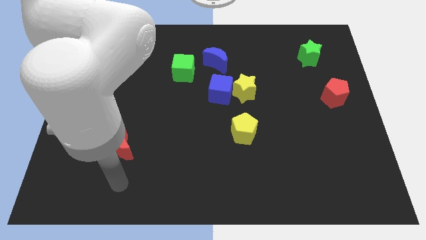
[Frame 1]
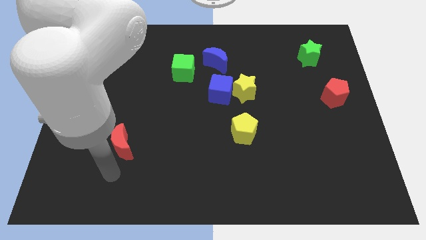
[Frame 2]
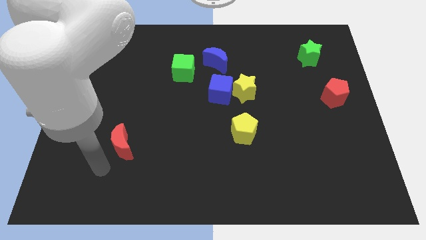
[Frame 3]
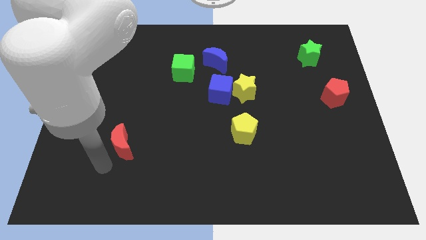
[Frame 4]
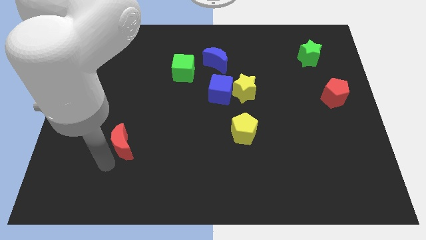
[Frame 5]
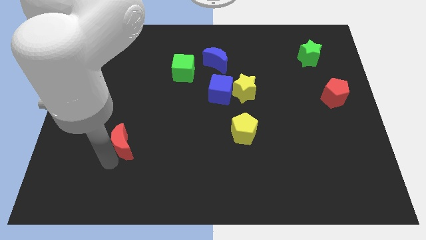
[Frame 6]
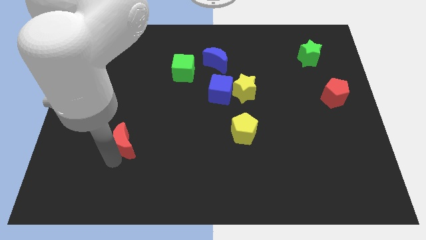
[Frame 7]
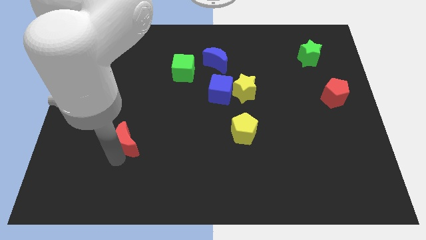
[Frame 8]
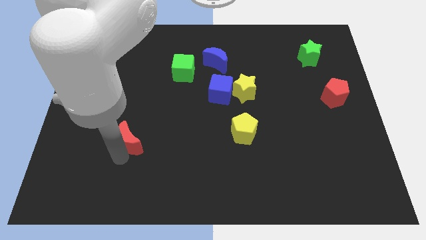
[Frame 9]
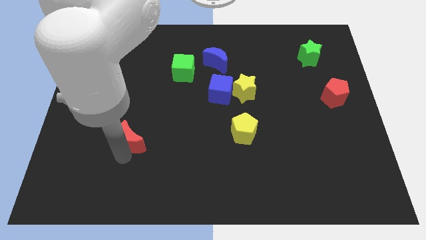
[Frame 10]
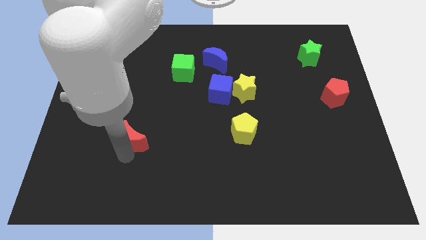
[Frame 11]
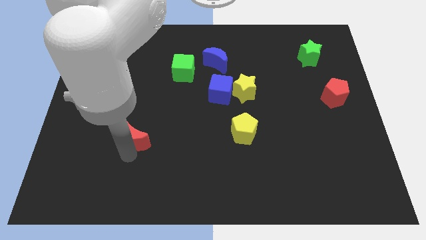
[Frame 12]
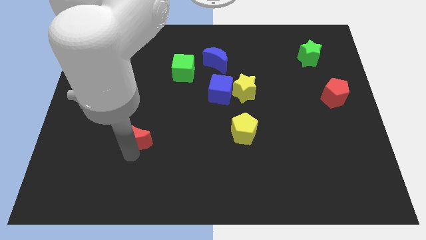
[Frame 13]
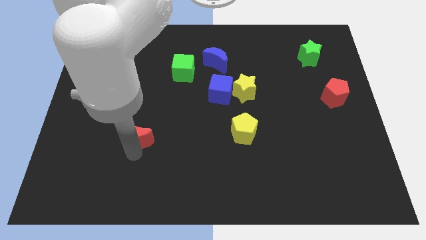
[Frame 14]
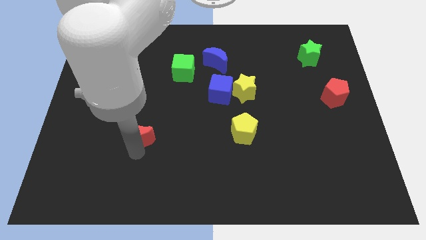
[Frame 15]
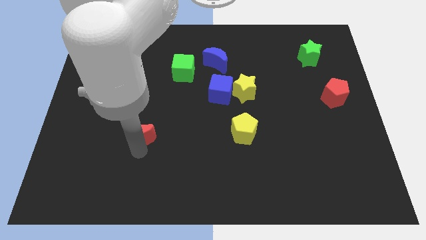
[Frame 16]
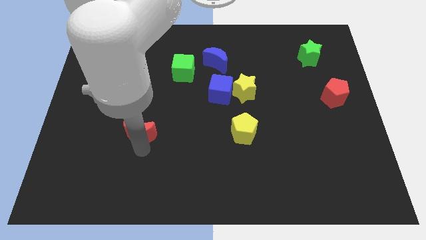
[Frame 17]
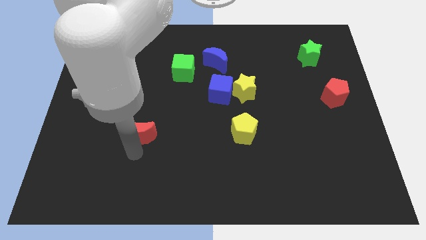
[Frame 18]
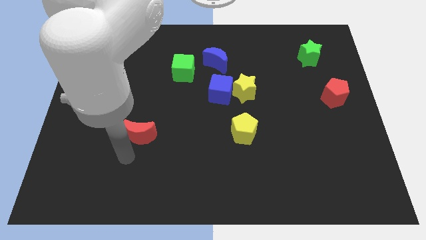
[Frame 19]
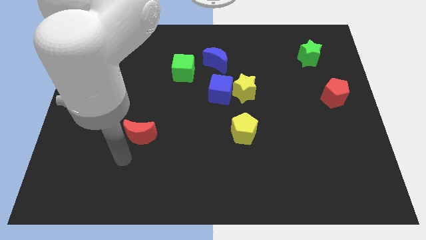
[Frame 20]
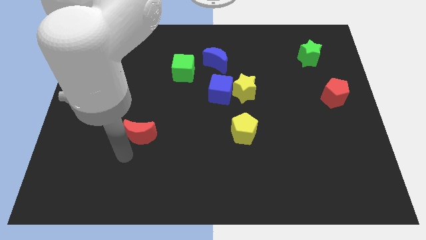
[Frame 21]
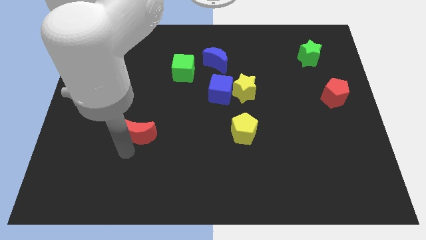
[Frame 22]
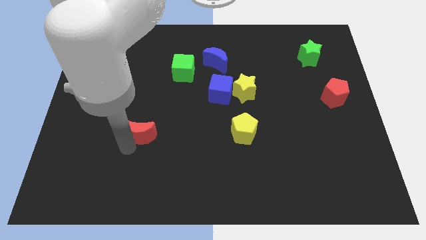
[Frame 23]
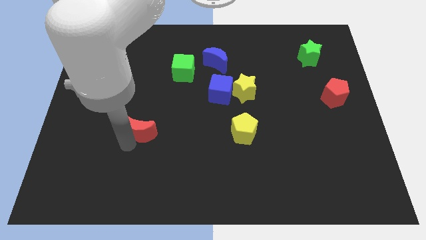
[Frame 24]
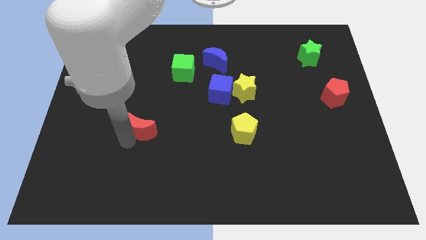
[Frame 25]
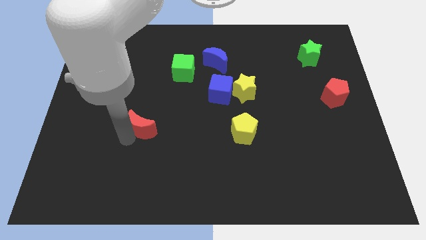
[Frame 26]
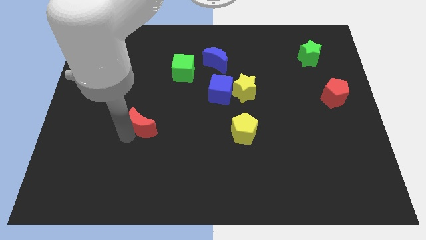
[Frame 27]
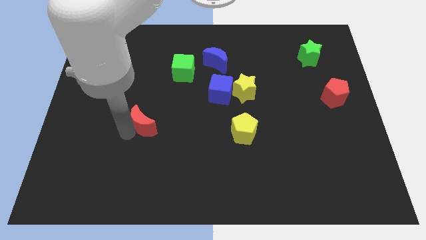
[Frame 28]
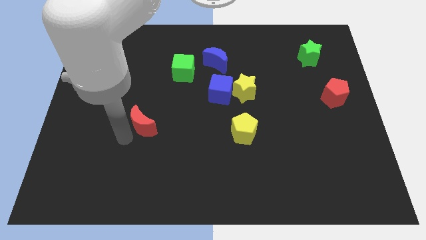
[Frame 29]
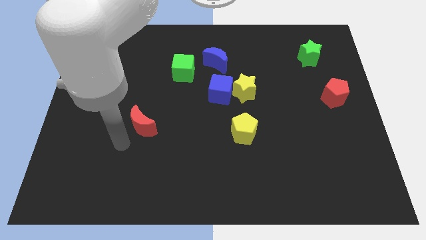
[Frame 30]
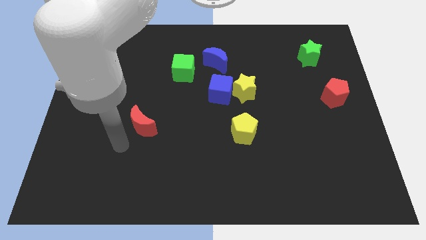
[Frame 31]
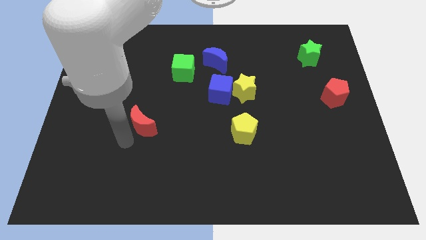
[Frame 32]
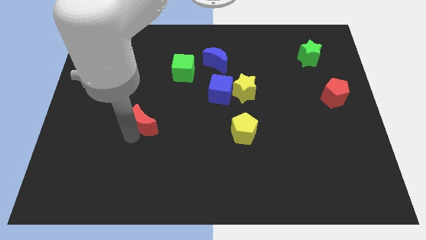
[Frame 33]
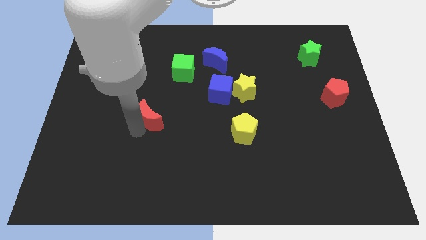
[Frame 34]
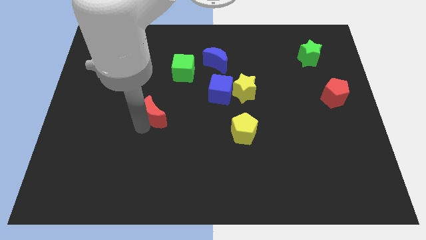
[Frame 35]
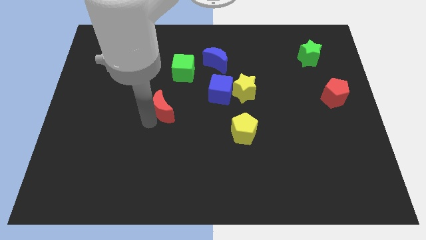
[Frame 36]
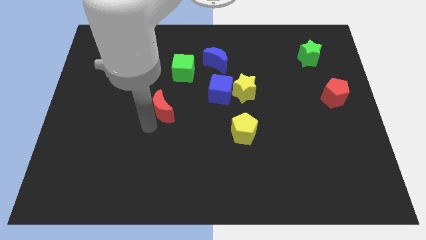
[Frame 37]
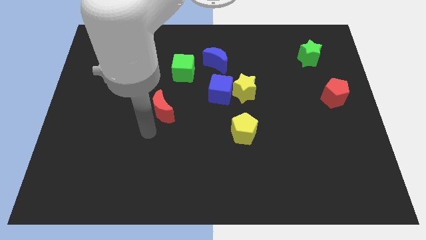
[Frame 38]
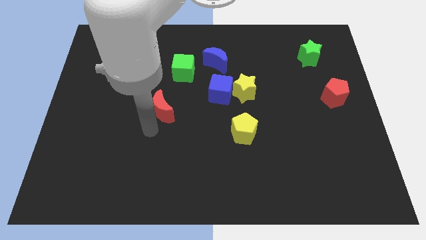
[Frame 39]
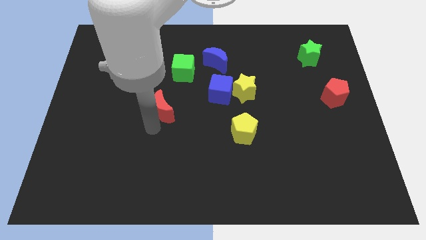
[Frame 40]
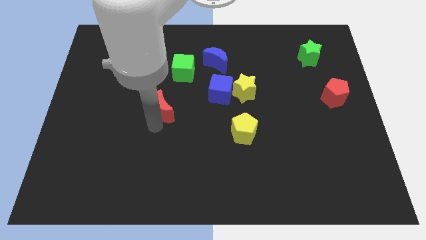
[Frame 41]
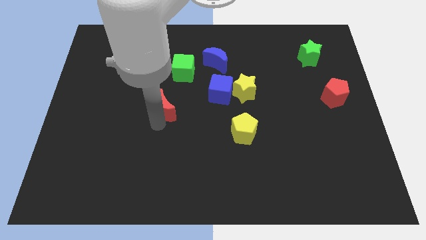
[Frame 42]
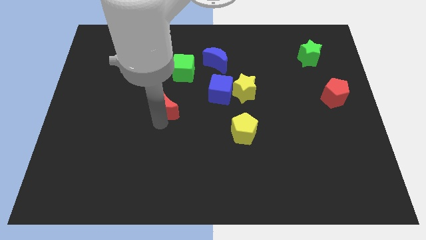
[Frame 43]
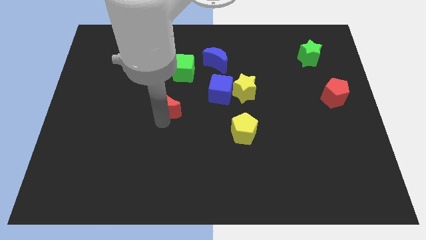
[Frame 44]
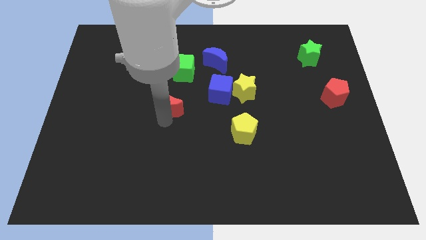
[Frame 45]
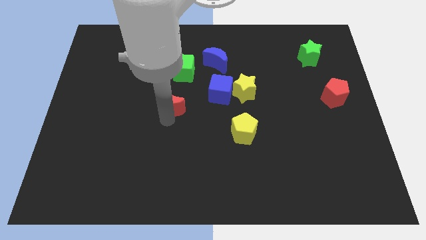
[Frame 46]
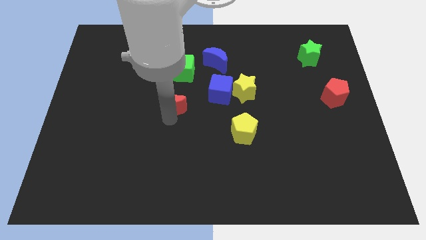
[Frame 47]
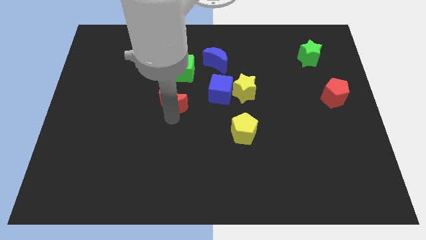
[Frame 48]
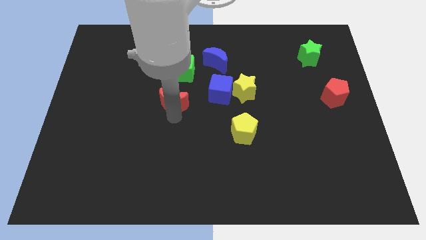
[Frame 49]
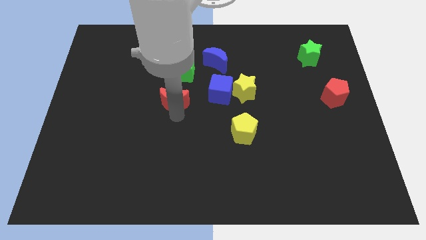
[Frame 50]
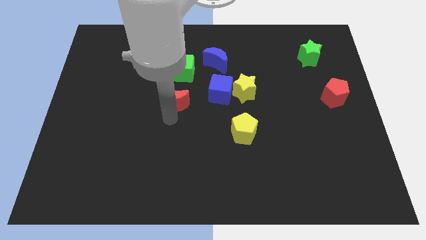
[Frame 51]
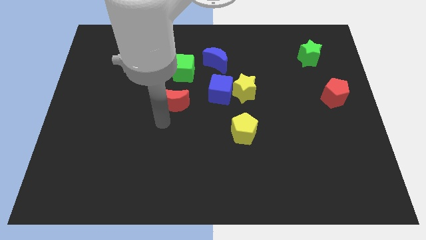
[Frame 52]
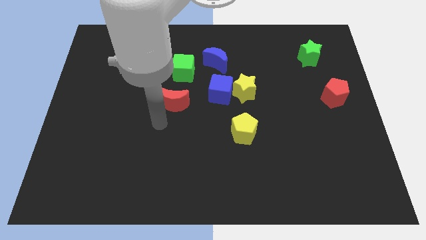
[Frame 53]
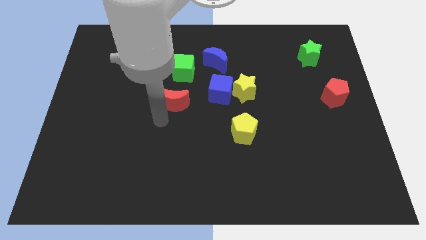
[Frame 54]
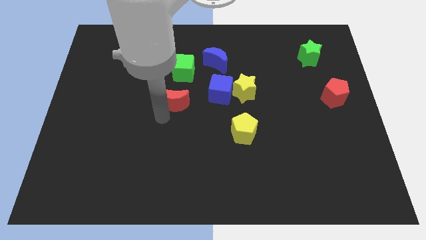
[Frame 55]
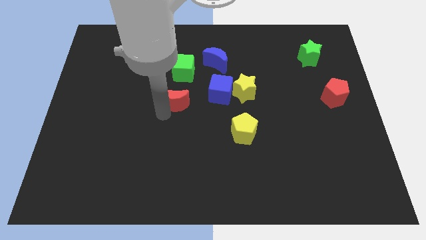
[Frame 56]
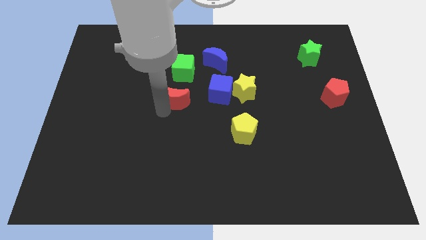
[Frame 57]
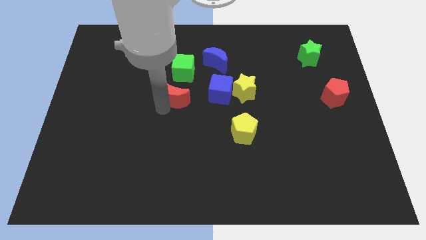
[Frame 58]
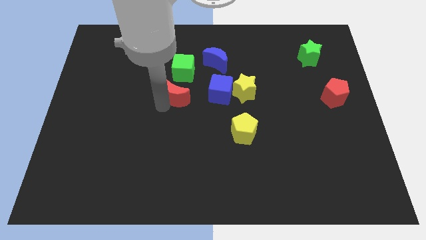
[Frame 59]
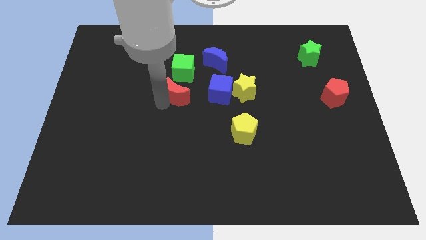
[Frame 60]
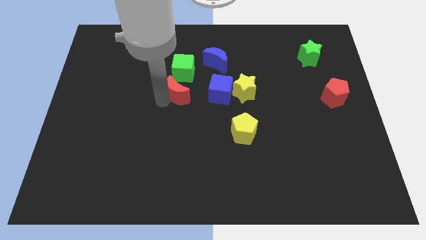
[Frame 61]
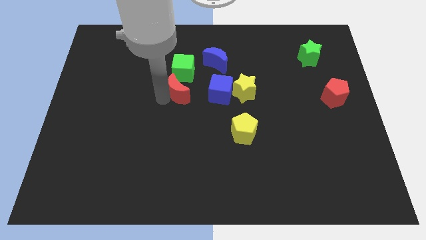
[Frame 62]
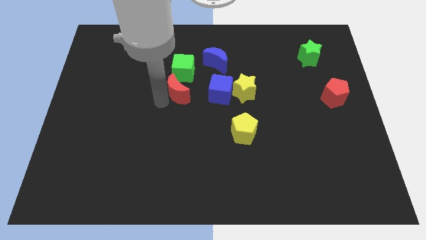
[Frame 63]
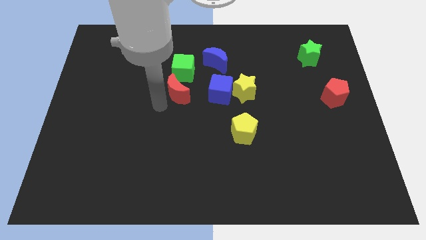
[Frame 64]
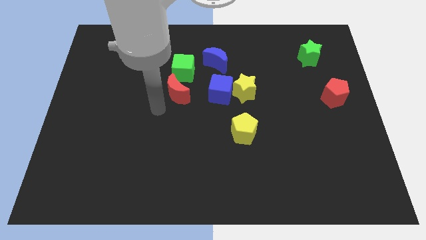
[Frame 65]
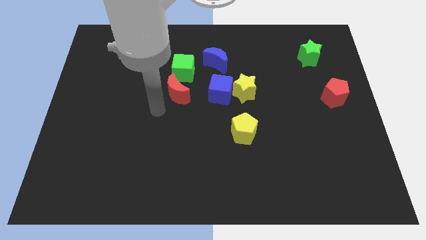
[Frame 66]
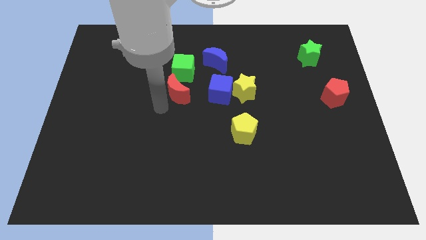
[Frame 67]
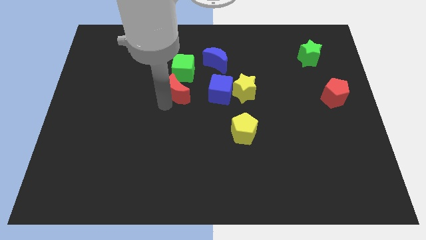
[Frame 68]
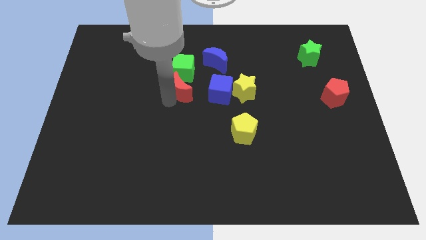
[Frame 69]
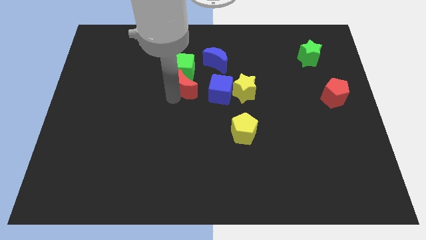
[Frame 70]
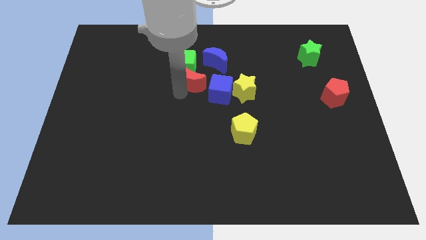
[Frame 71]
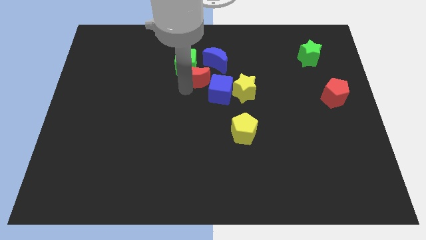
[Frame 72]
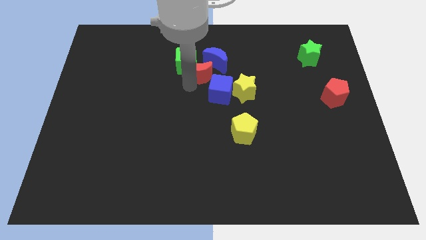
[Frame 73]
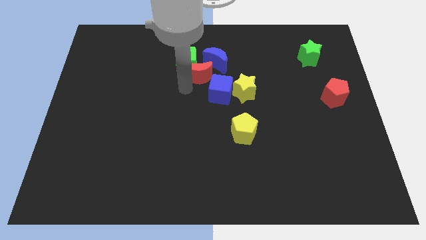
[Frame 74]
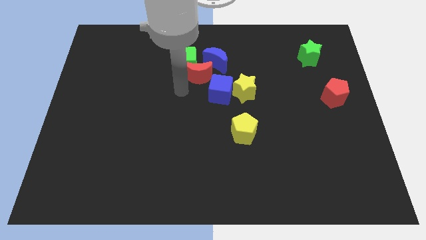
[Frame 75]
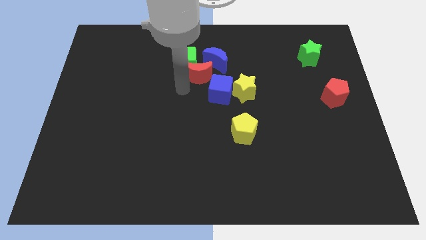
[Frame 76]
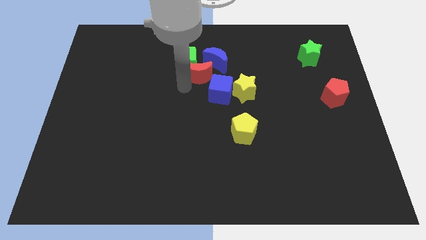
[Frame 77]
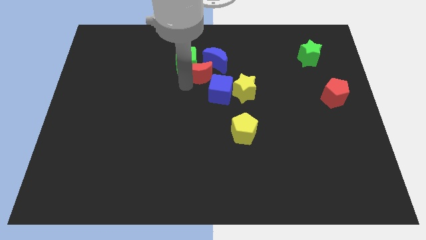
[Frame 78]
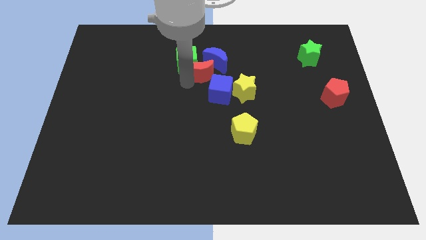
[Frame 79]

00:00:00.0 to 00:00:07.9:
put the red moon towards the blue moon
